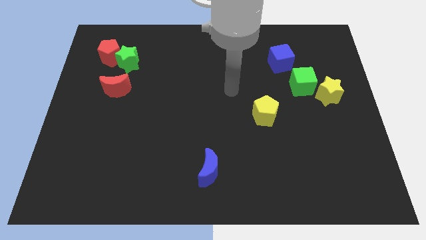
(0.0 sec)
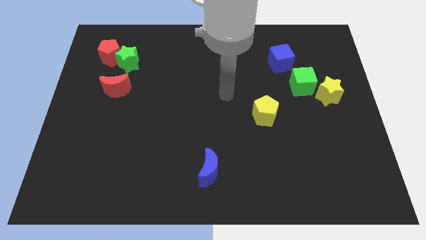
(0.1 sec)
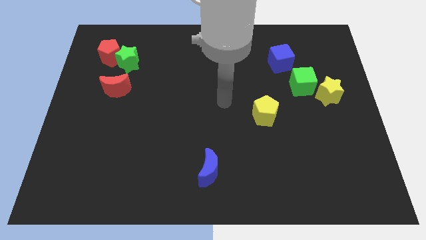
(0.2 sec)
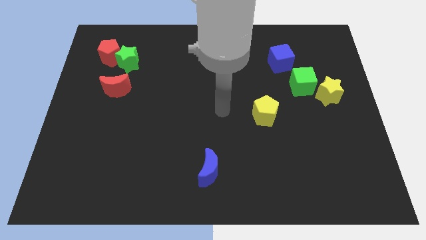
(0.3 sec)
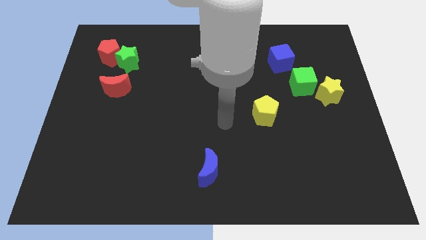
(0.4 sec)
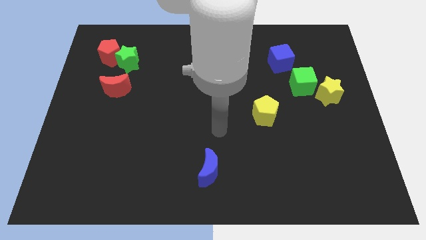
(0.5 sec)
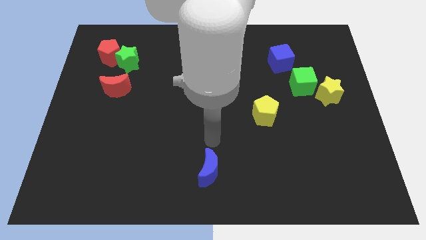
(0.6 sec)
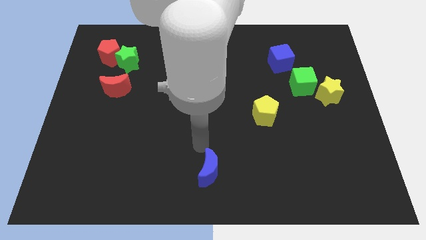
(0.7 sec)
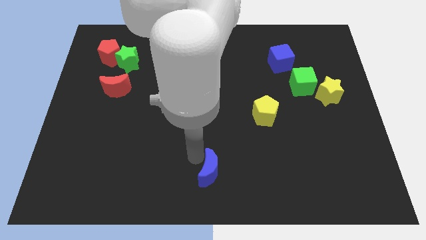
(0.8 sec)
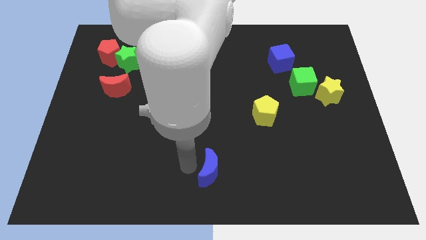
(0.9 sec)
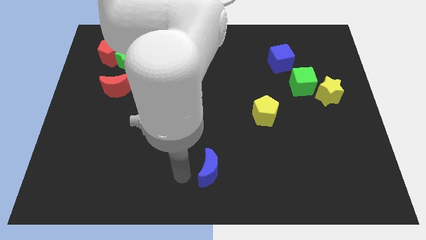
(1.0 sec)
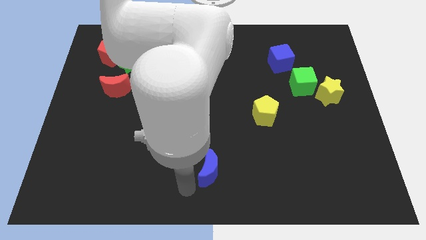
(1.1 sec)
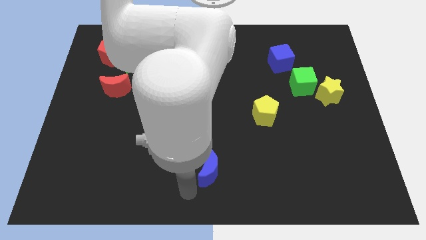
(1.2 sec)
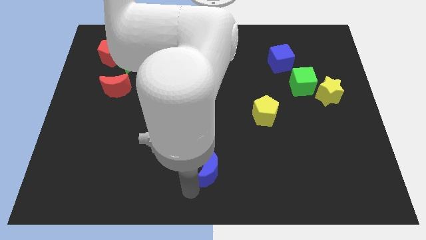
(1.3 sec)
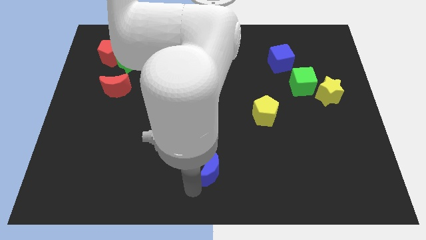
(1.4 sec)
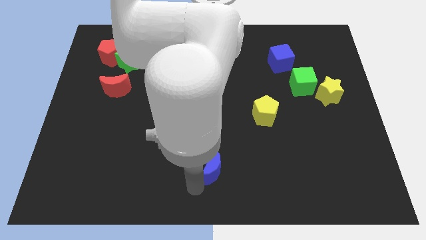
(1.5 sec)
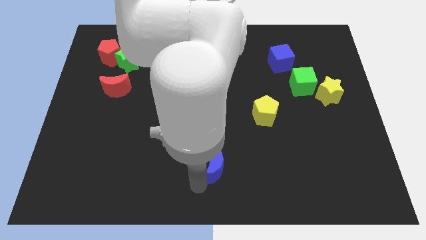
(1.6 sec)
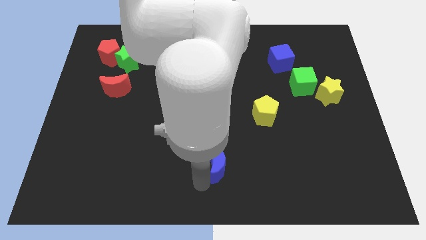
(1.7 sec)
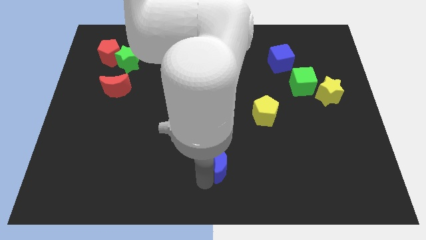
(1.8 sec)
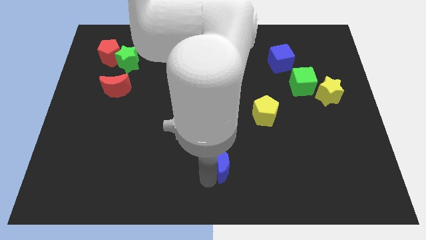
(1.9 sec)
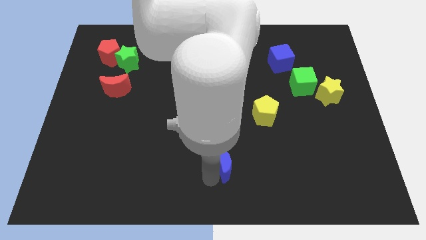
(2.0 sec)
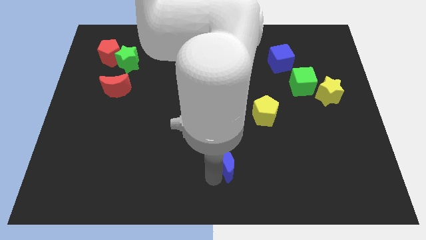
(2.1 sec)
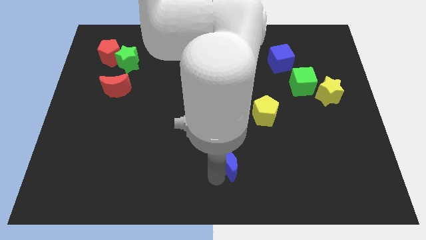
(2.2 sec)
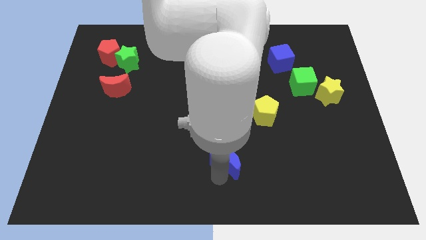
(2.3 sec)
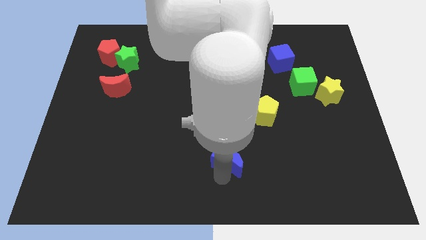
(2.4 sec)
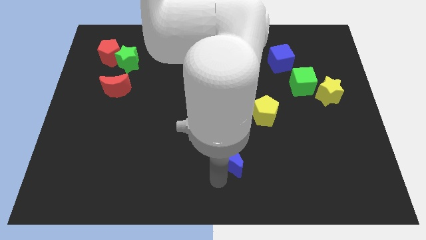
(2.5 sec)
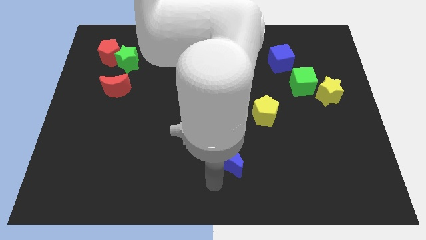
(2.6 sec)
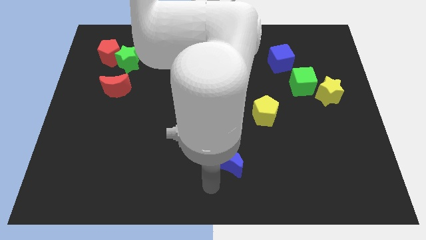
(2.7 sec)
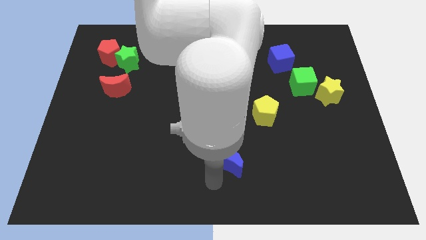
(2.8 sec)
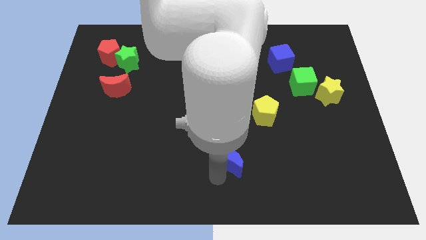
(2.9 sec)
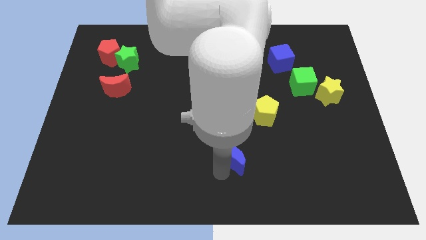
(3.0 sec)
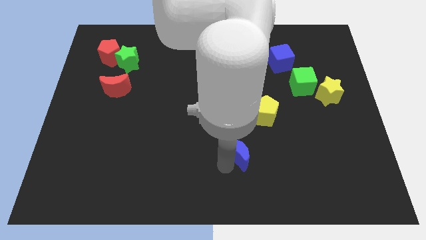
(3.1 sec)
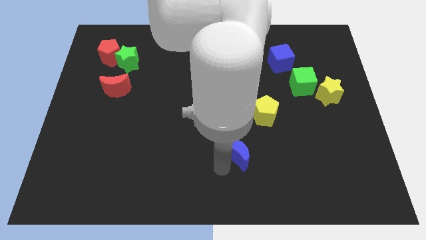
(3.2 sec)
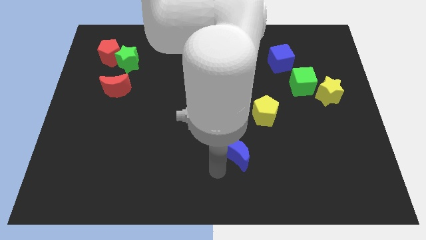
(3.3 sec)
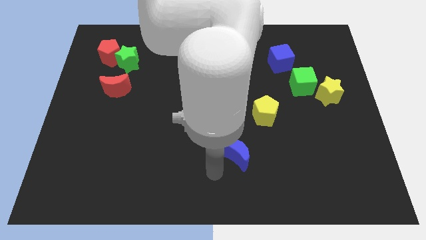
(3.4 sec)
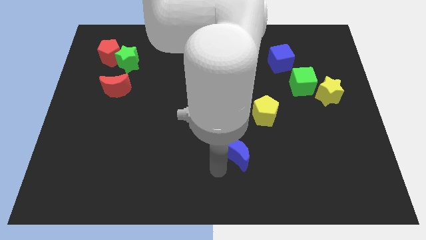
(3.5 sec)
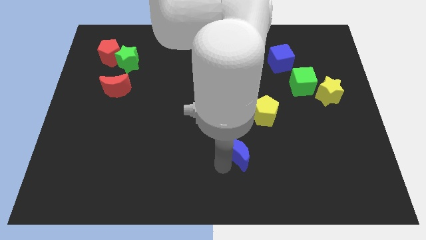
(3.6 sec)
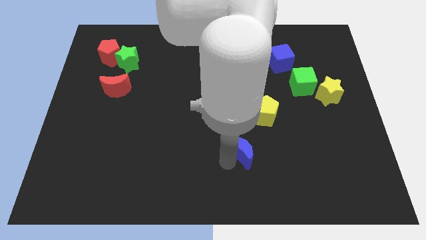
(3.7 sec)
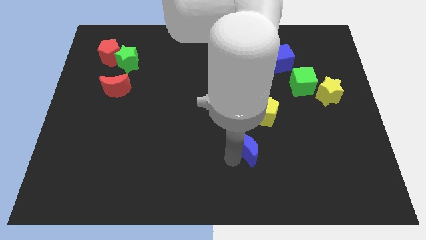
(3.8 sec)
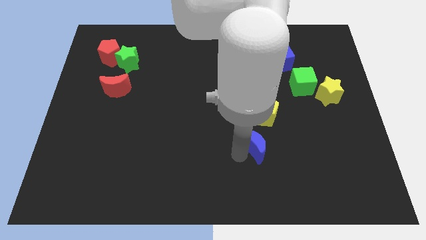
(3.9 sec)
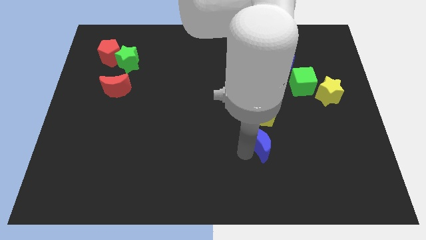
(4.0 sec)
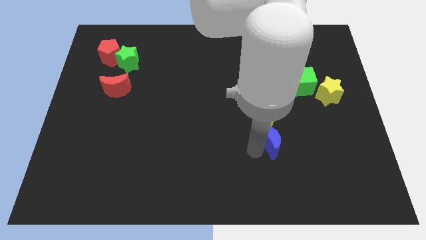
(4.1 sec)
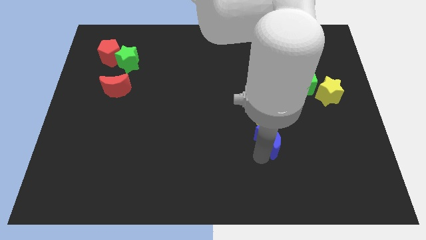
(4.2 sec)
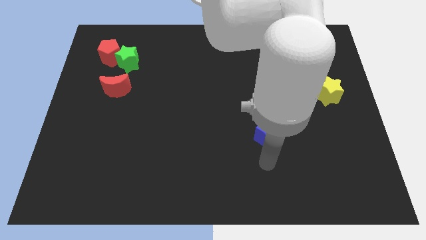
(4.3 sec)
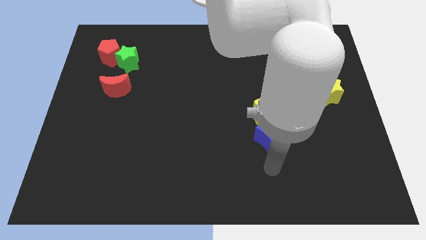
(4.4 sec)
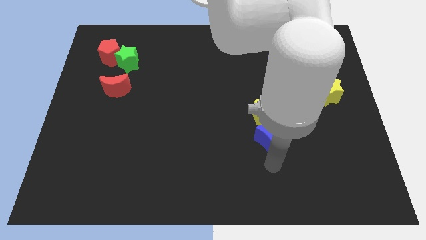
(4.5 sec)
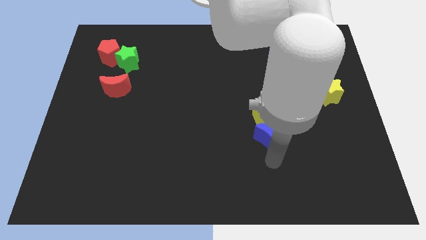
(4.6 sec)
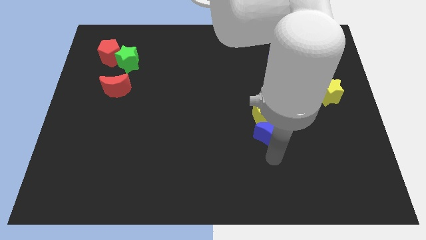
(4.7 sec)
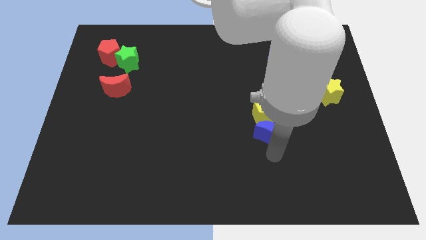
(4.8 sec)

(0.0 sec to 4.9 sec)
push the blue moon to the yellow pentagon

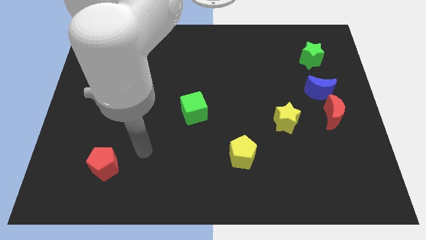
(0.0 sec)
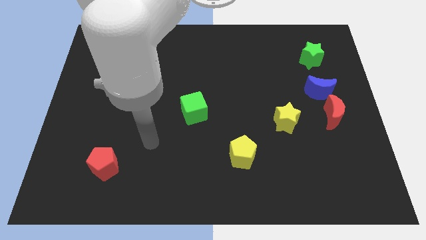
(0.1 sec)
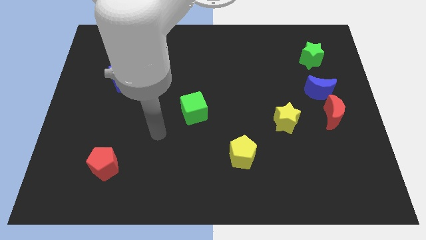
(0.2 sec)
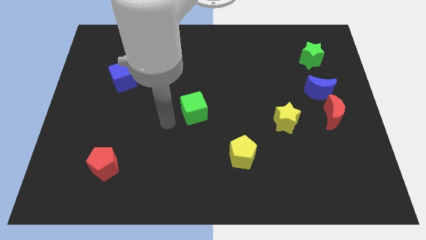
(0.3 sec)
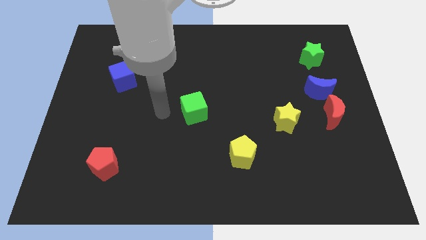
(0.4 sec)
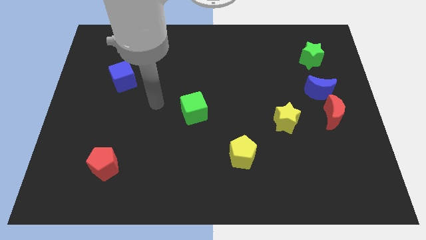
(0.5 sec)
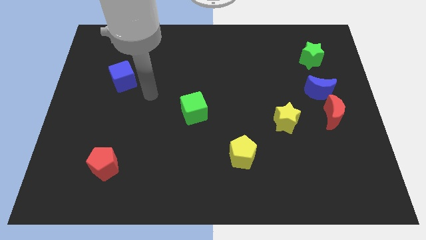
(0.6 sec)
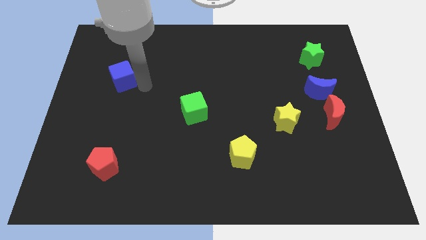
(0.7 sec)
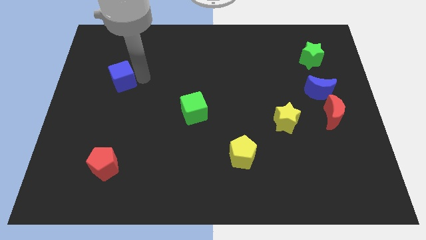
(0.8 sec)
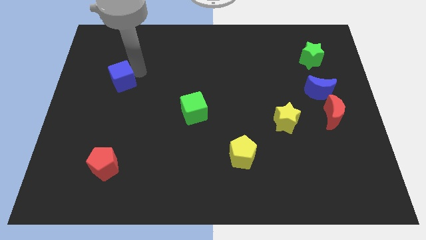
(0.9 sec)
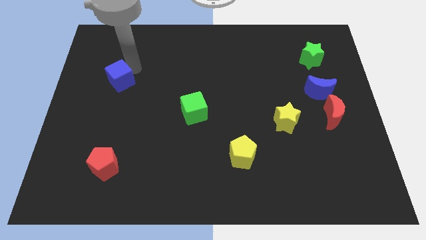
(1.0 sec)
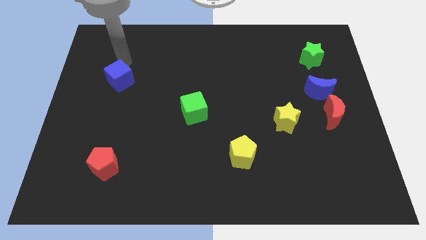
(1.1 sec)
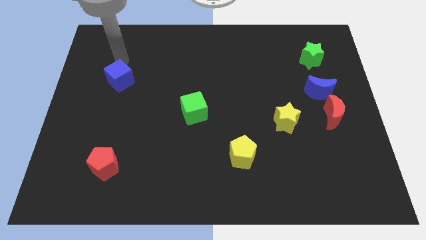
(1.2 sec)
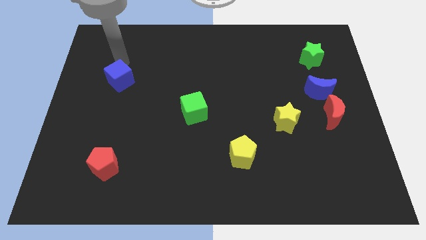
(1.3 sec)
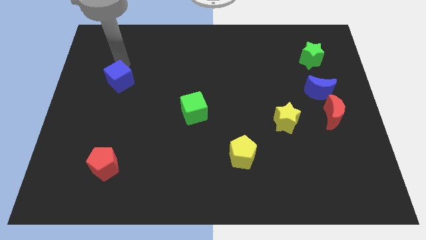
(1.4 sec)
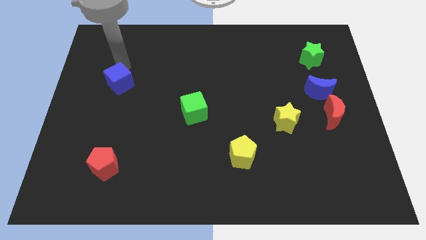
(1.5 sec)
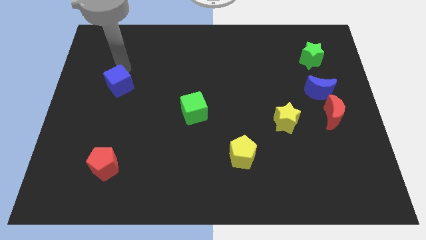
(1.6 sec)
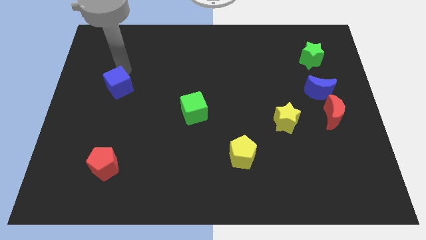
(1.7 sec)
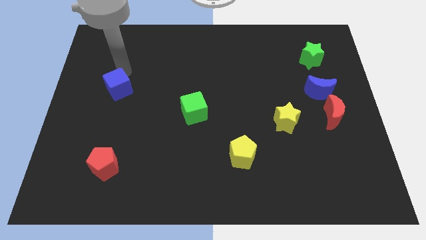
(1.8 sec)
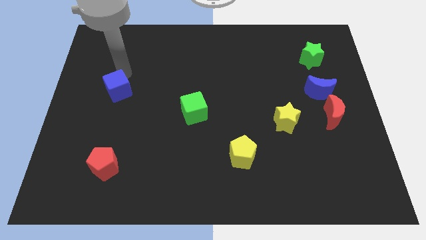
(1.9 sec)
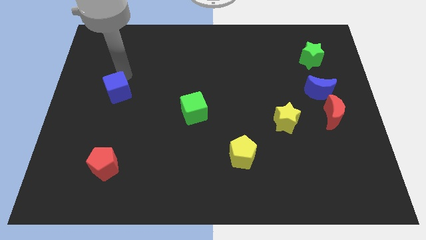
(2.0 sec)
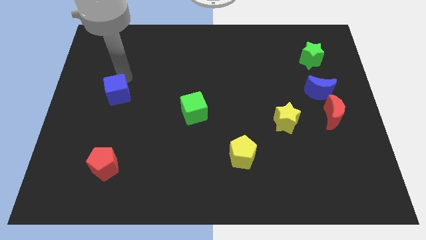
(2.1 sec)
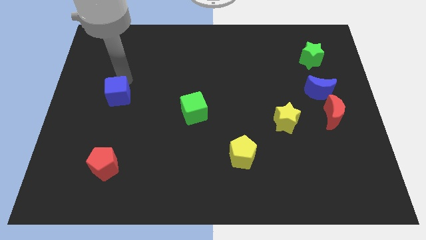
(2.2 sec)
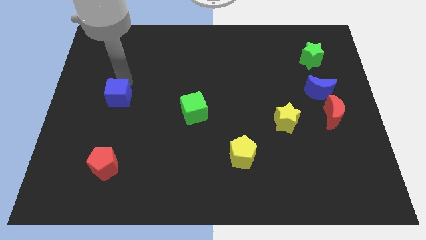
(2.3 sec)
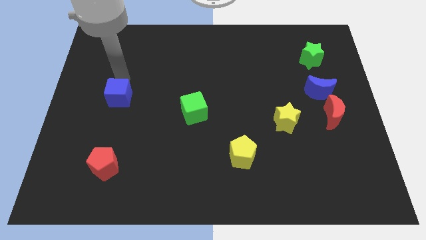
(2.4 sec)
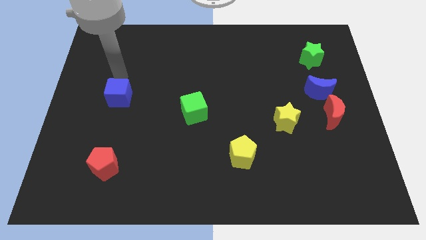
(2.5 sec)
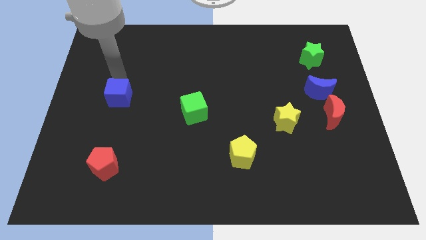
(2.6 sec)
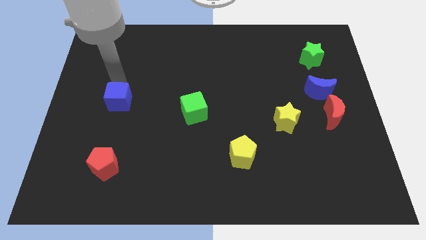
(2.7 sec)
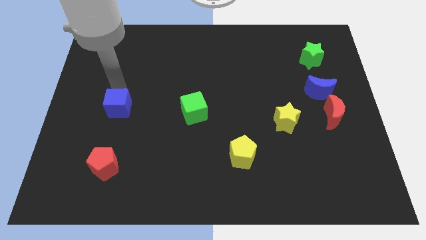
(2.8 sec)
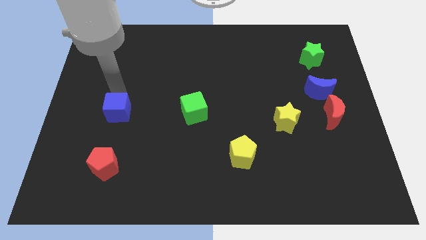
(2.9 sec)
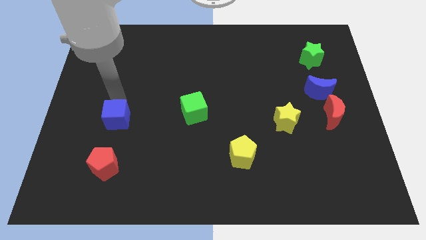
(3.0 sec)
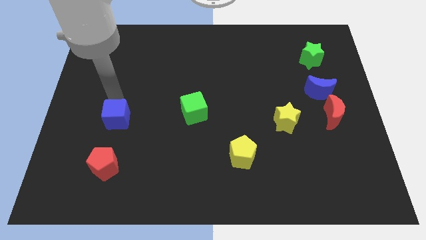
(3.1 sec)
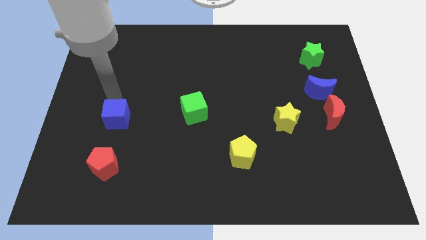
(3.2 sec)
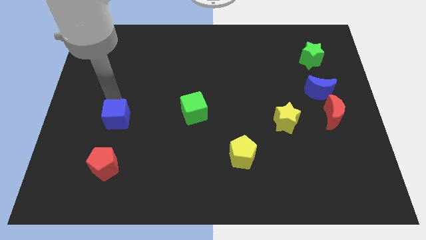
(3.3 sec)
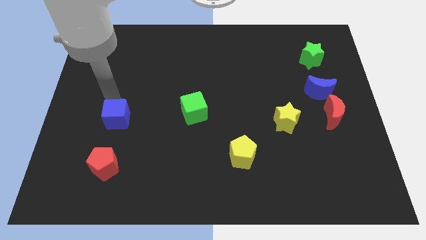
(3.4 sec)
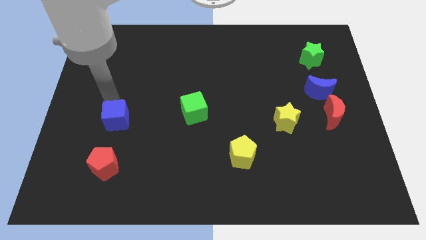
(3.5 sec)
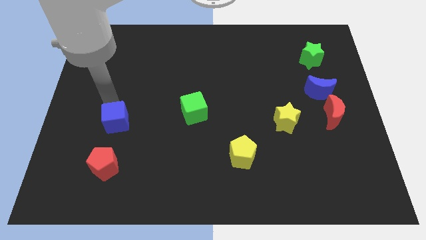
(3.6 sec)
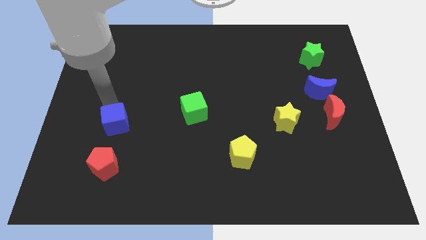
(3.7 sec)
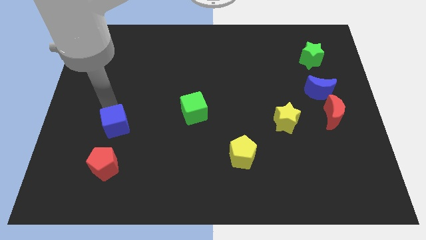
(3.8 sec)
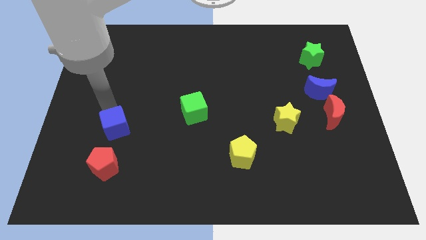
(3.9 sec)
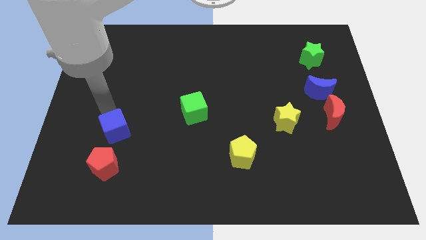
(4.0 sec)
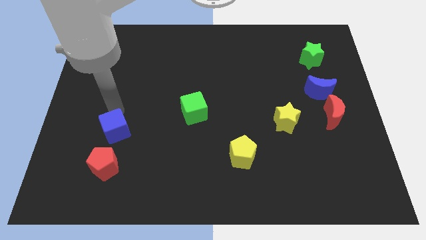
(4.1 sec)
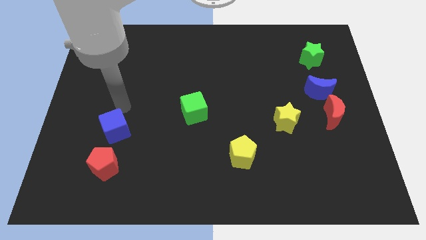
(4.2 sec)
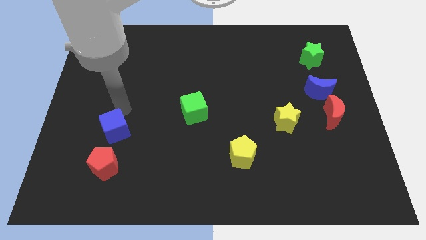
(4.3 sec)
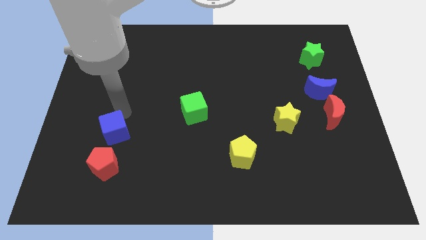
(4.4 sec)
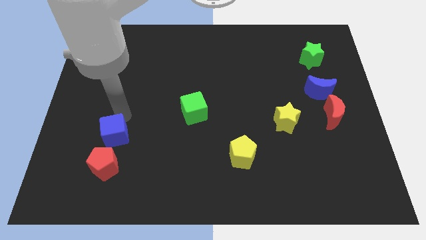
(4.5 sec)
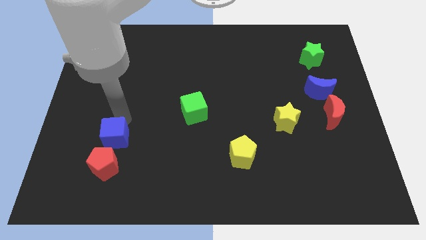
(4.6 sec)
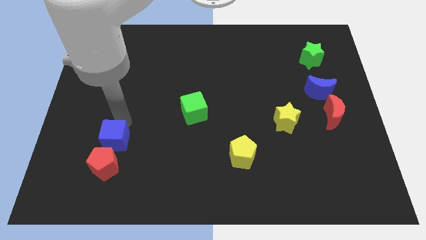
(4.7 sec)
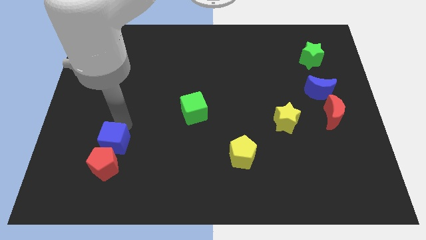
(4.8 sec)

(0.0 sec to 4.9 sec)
put the blue cube next to the red pentagon
